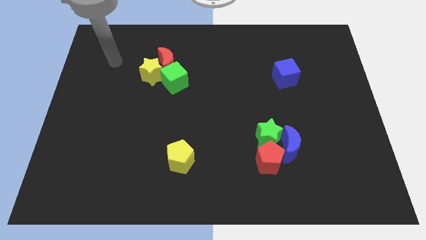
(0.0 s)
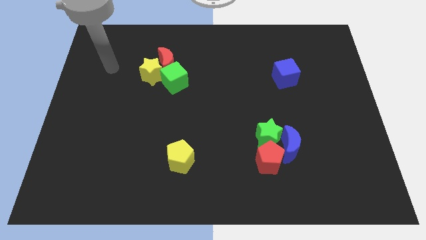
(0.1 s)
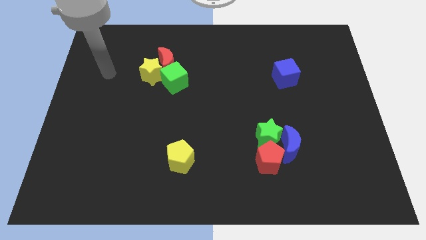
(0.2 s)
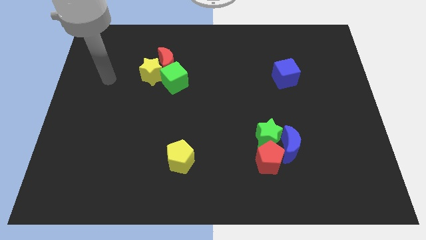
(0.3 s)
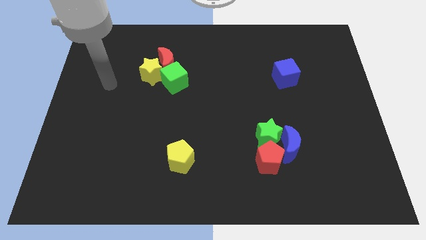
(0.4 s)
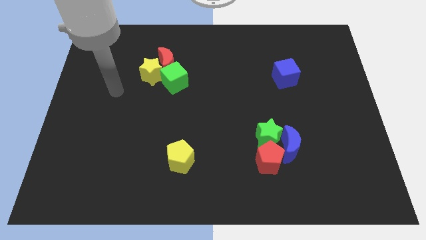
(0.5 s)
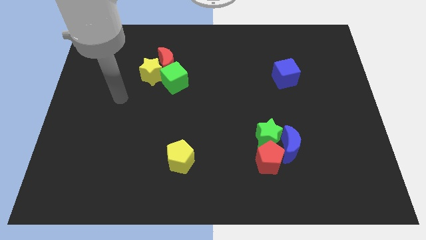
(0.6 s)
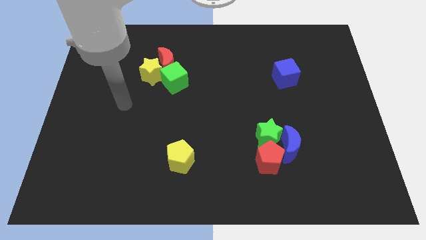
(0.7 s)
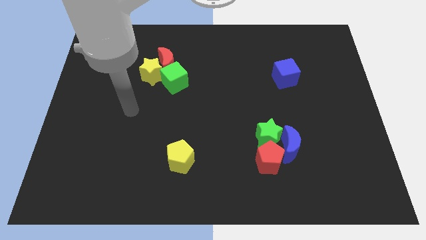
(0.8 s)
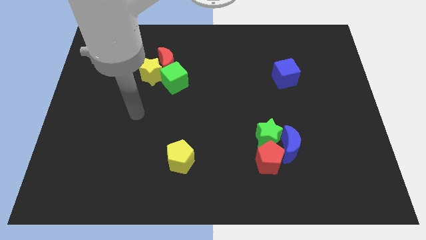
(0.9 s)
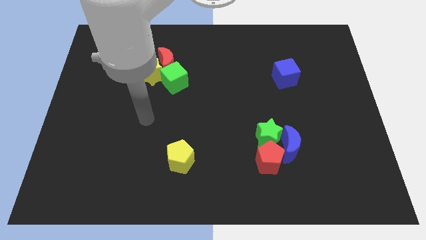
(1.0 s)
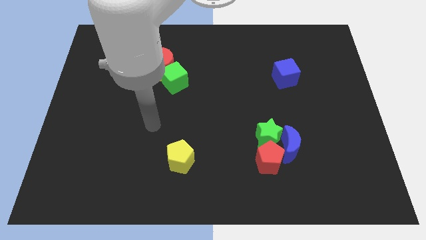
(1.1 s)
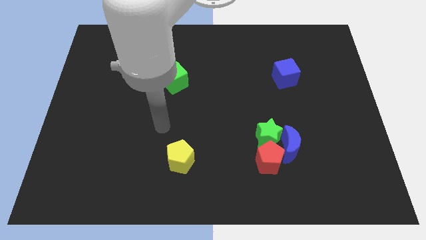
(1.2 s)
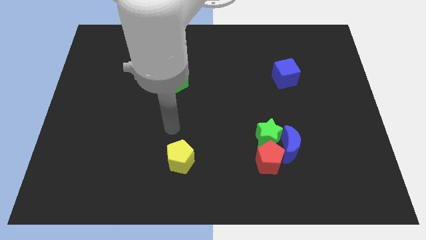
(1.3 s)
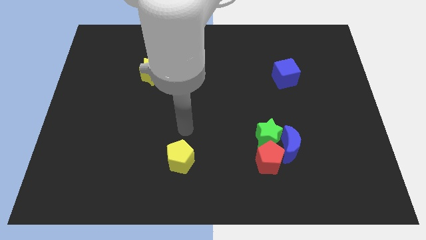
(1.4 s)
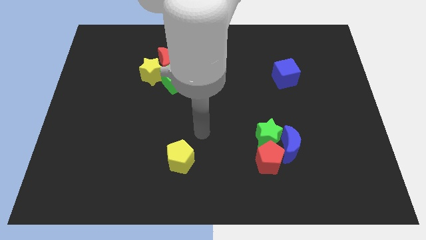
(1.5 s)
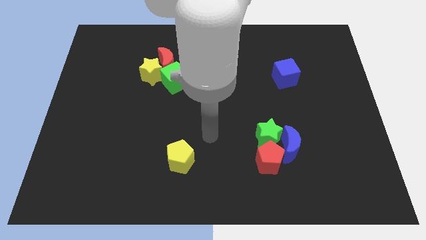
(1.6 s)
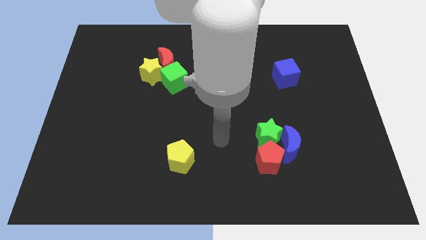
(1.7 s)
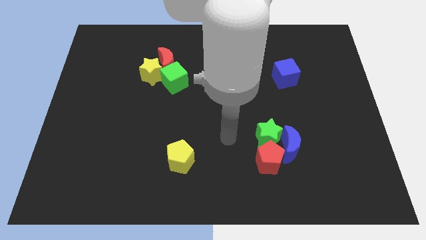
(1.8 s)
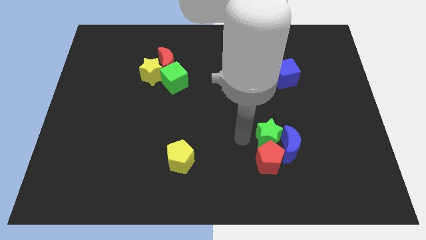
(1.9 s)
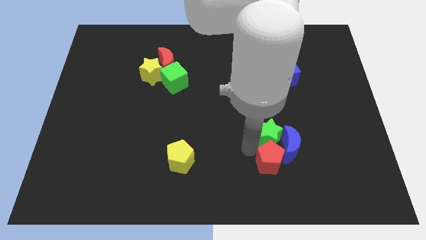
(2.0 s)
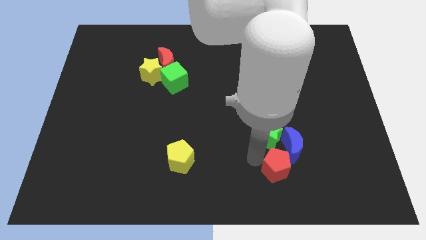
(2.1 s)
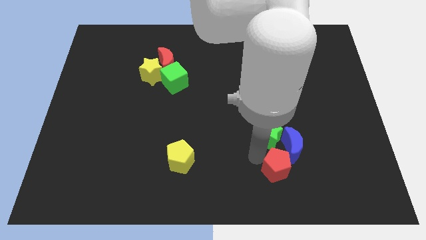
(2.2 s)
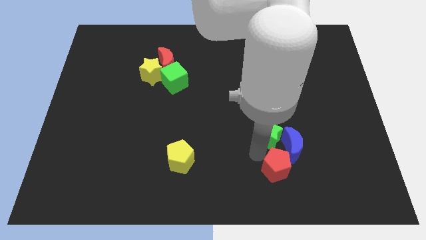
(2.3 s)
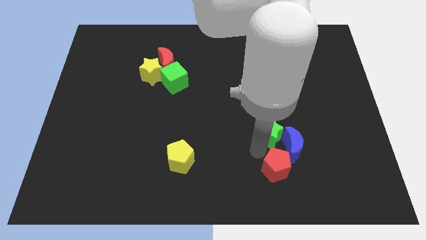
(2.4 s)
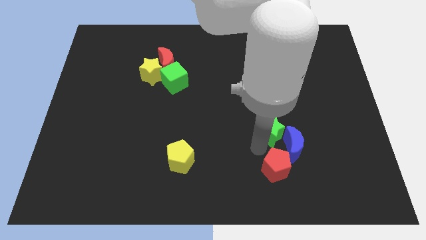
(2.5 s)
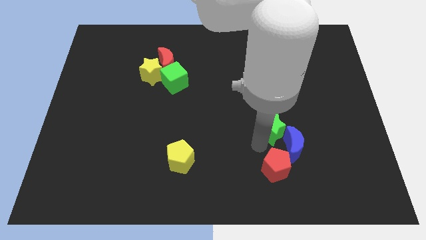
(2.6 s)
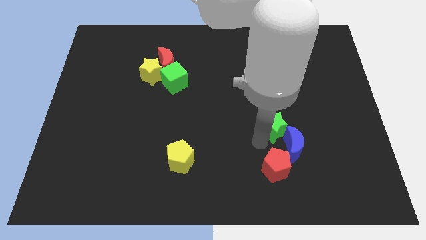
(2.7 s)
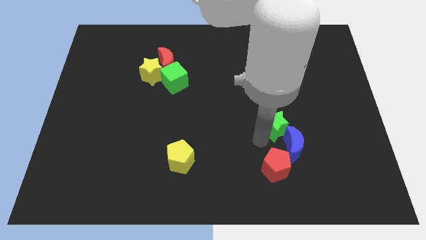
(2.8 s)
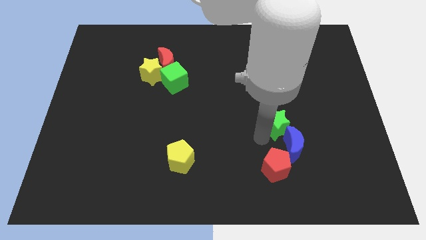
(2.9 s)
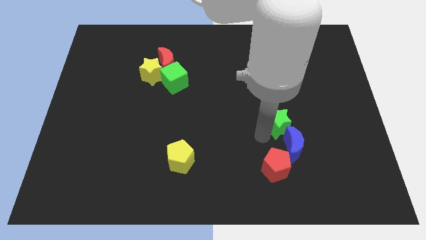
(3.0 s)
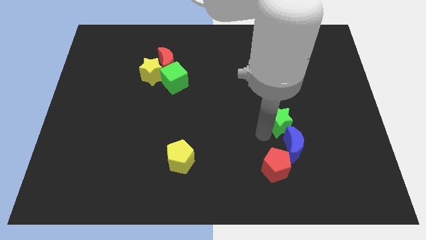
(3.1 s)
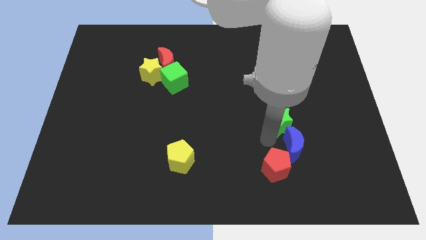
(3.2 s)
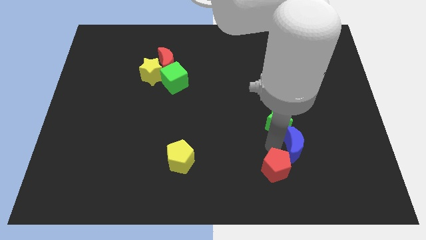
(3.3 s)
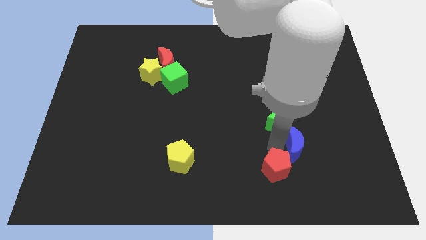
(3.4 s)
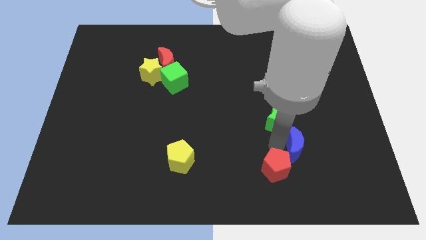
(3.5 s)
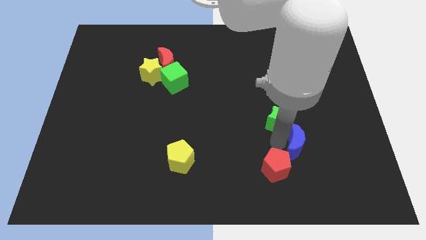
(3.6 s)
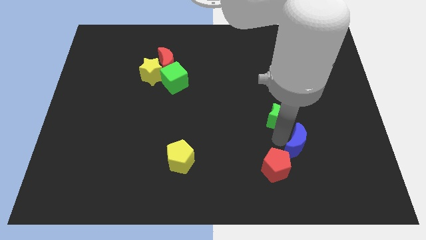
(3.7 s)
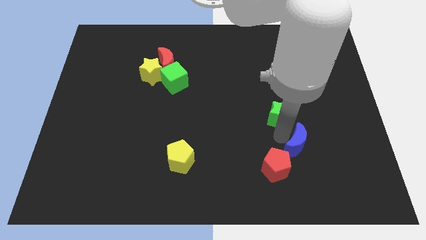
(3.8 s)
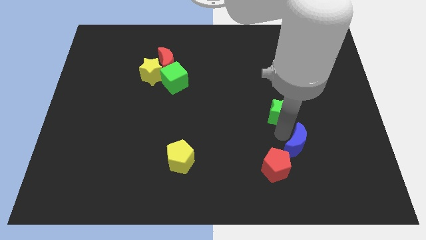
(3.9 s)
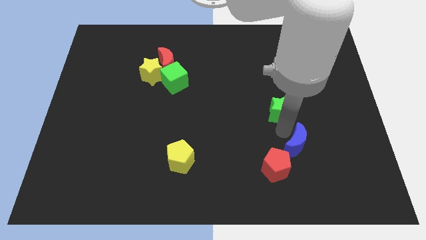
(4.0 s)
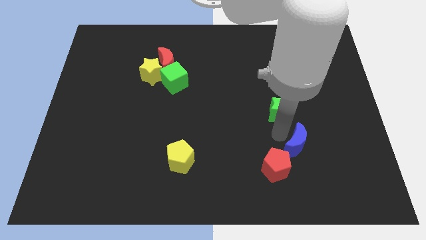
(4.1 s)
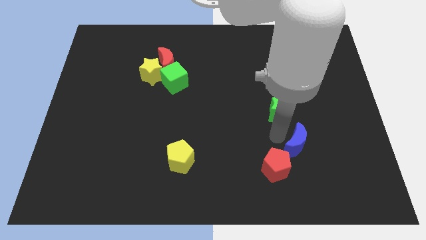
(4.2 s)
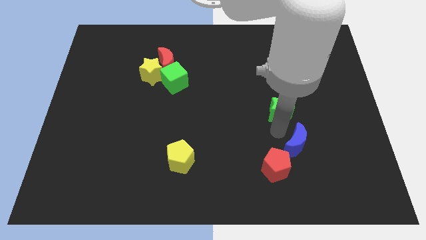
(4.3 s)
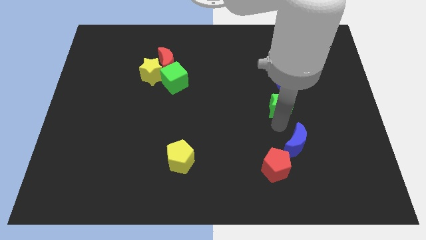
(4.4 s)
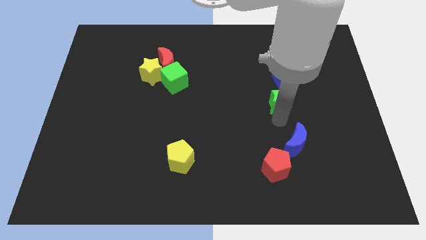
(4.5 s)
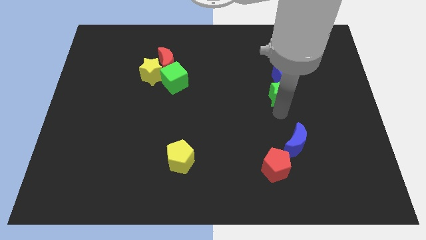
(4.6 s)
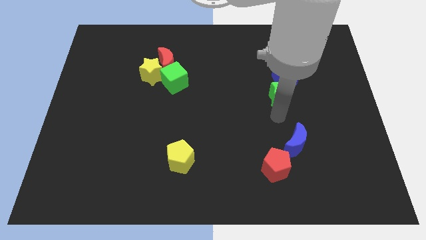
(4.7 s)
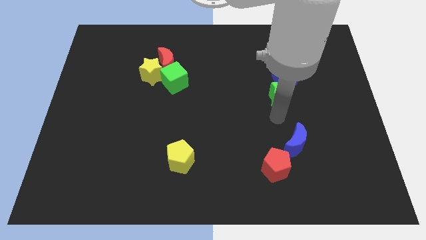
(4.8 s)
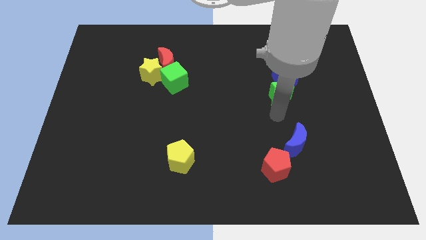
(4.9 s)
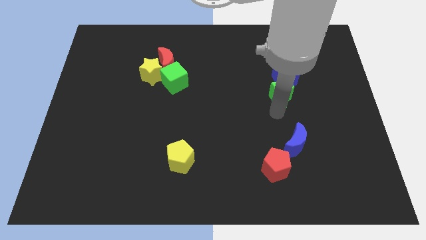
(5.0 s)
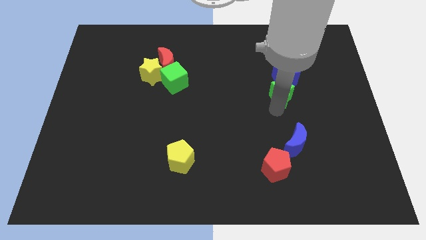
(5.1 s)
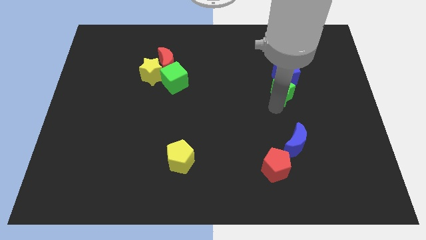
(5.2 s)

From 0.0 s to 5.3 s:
put the green star close to the blue cube

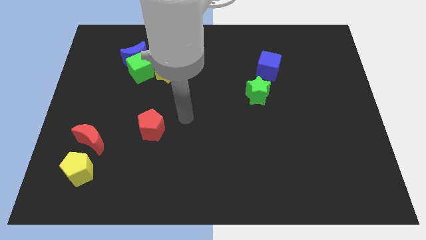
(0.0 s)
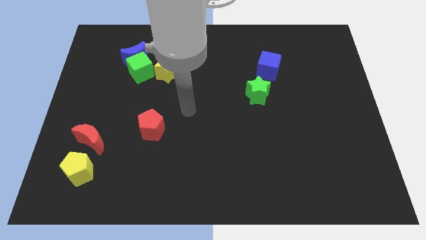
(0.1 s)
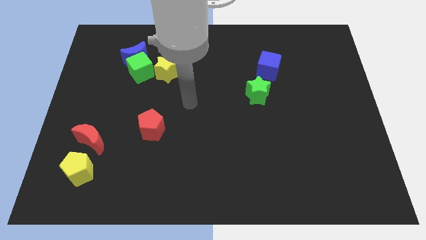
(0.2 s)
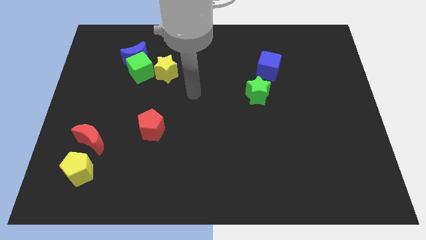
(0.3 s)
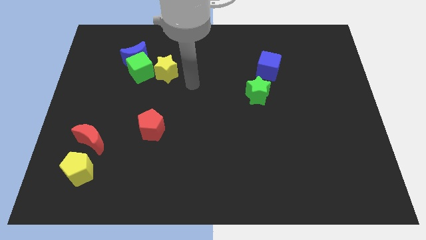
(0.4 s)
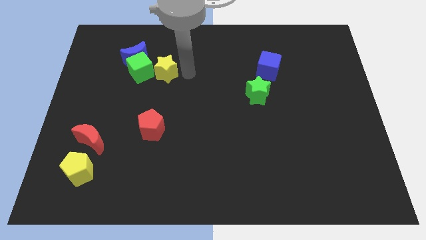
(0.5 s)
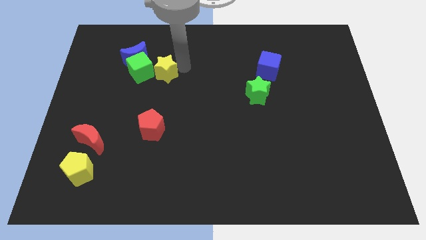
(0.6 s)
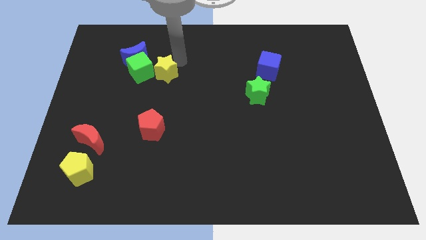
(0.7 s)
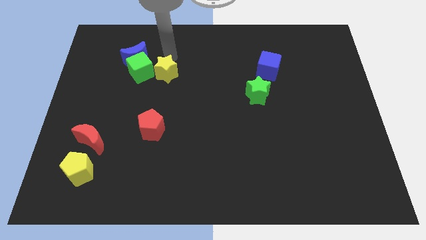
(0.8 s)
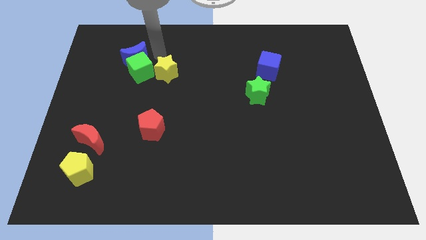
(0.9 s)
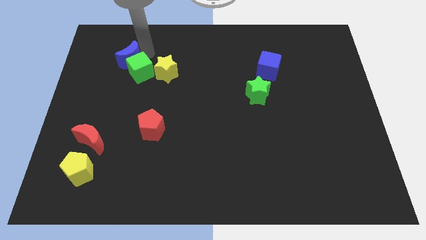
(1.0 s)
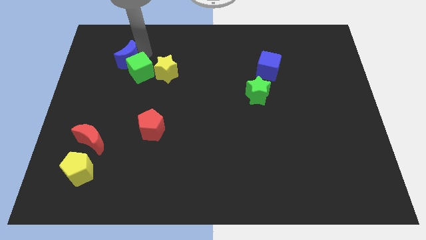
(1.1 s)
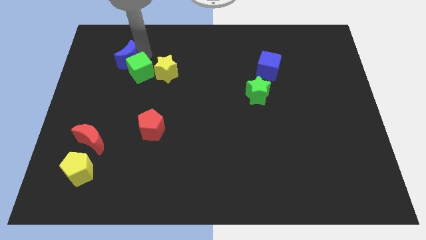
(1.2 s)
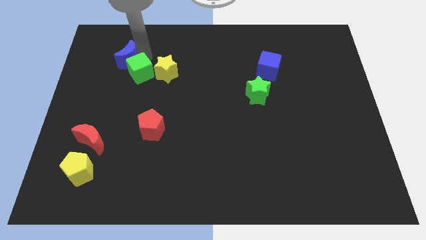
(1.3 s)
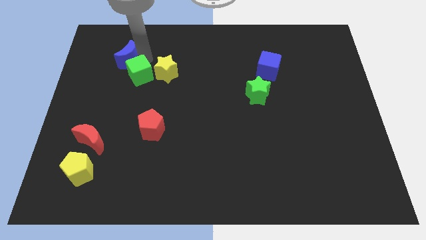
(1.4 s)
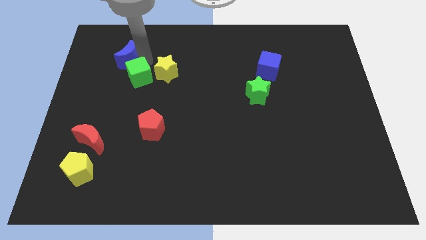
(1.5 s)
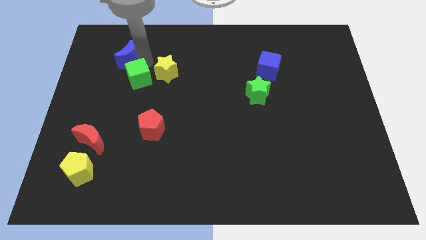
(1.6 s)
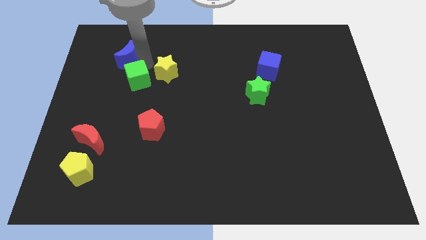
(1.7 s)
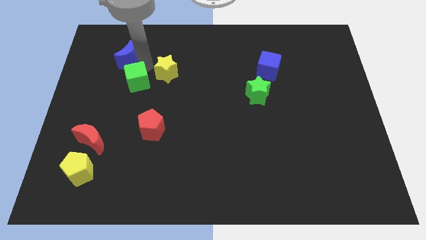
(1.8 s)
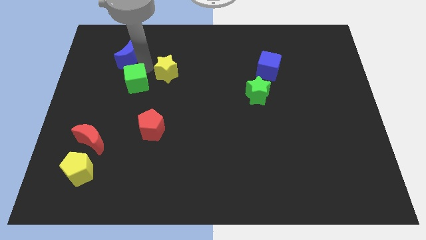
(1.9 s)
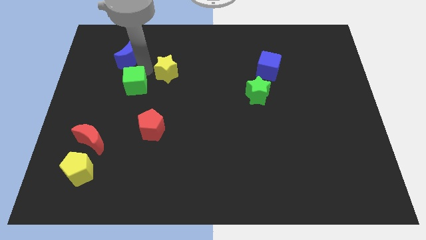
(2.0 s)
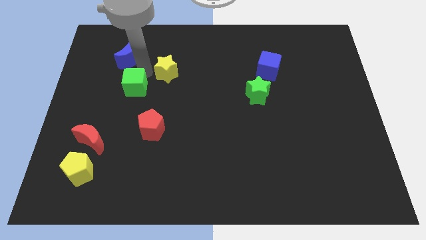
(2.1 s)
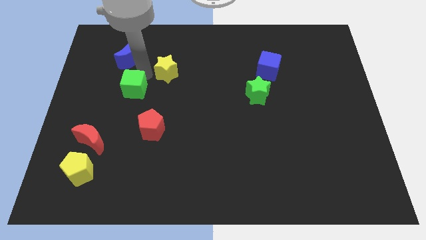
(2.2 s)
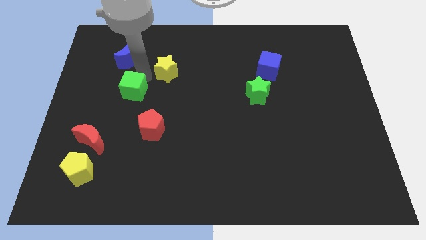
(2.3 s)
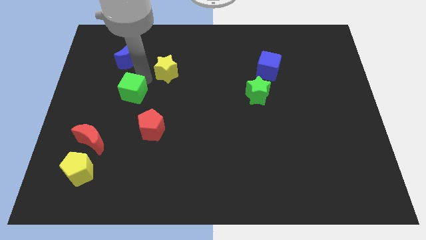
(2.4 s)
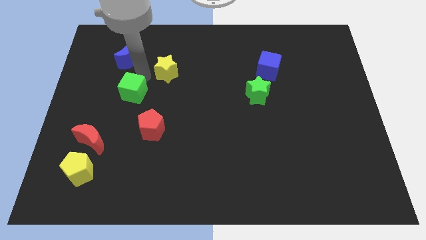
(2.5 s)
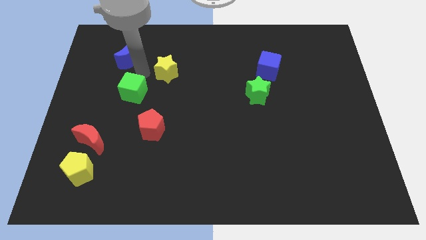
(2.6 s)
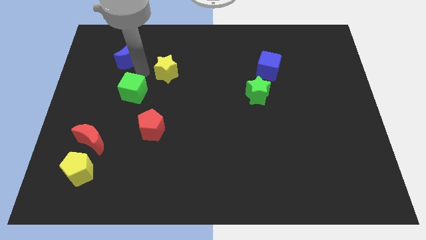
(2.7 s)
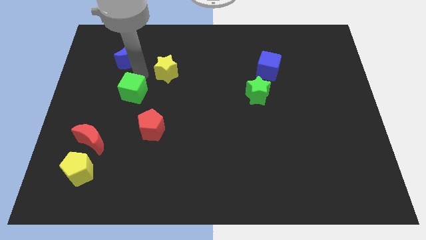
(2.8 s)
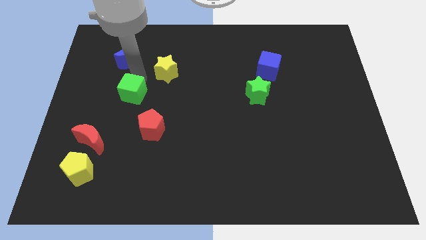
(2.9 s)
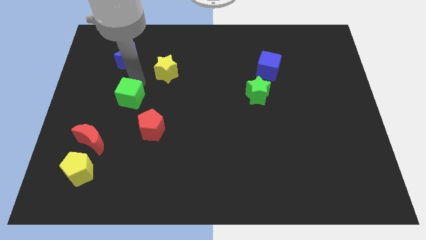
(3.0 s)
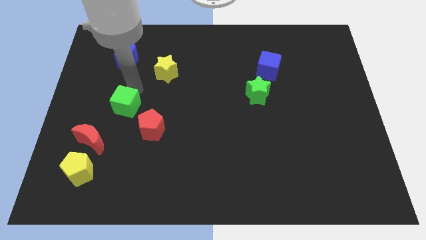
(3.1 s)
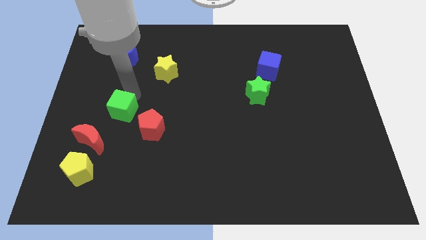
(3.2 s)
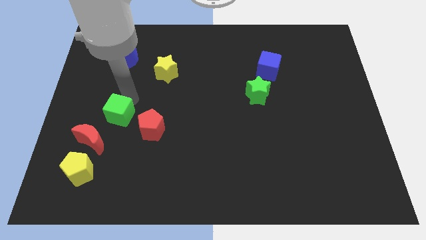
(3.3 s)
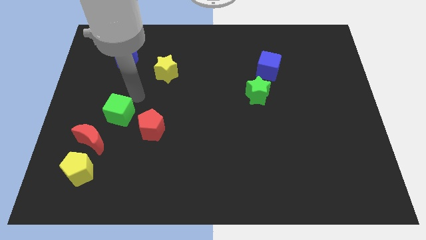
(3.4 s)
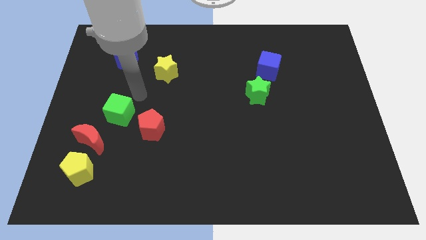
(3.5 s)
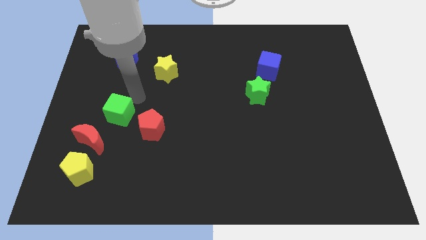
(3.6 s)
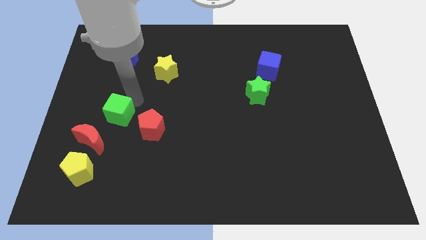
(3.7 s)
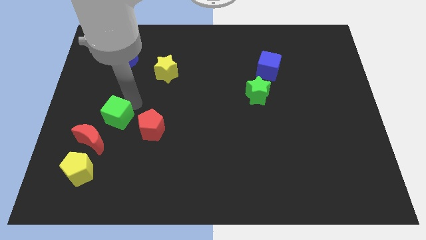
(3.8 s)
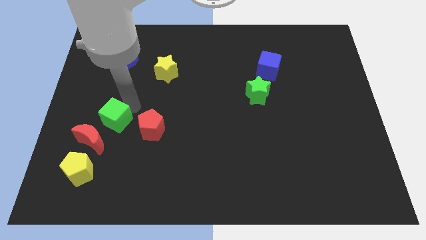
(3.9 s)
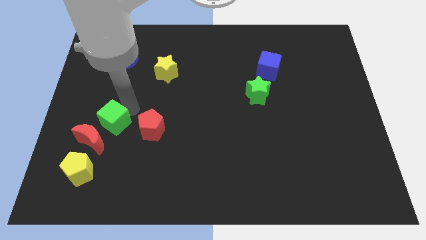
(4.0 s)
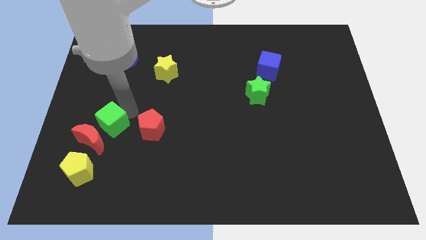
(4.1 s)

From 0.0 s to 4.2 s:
push the green cube next to the red moon
